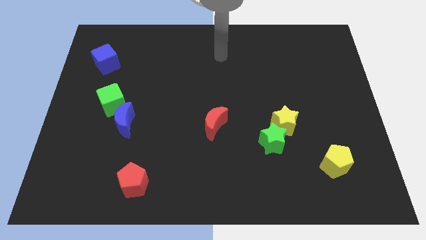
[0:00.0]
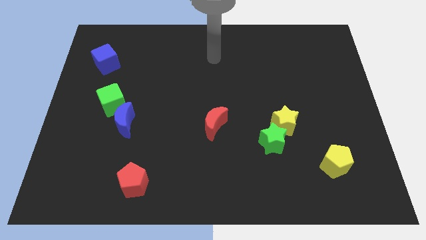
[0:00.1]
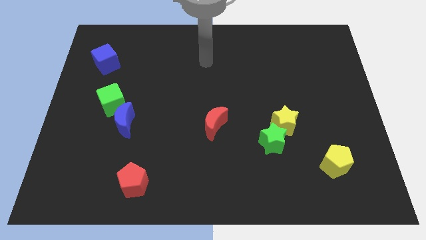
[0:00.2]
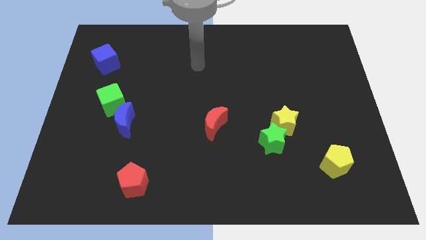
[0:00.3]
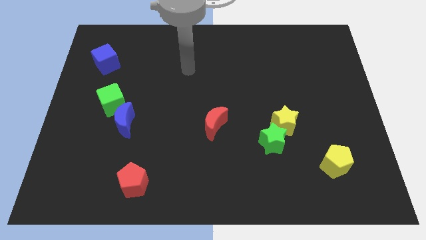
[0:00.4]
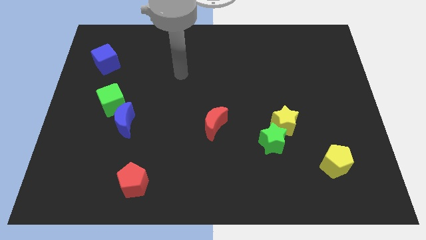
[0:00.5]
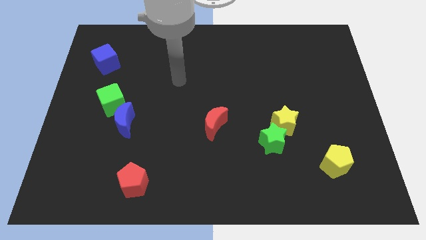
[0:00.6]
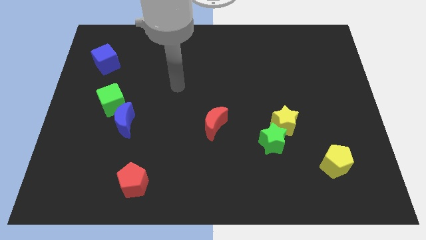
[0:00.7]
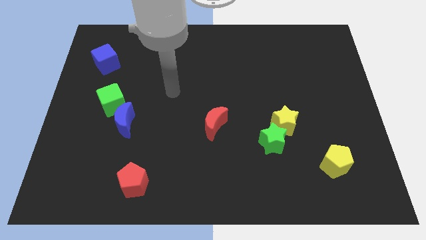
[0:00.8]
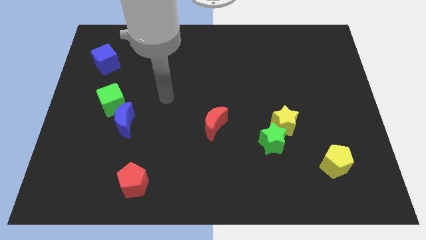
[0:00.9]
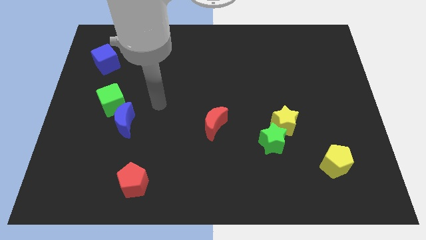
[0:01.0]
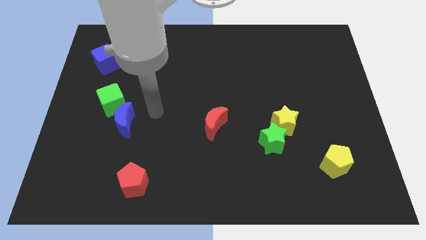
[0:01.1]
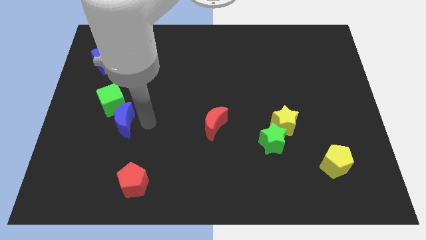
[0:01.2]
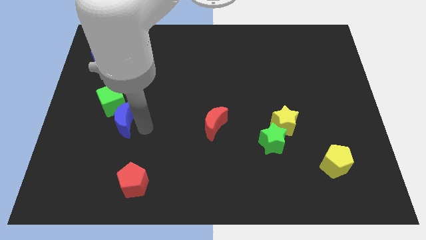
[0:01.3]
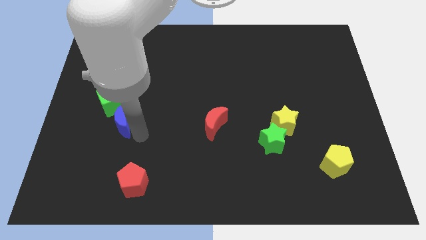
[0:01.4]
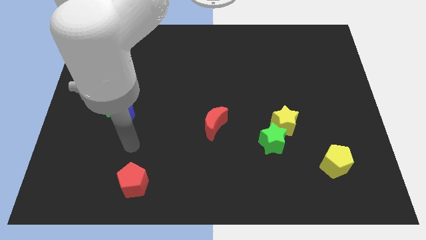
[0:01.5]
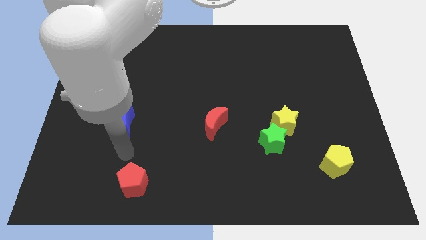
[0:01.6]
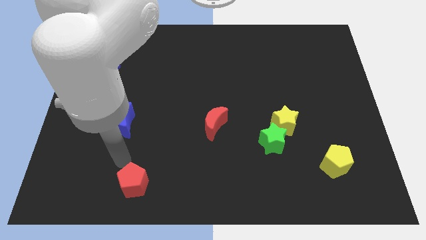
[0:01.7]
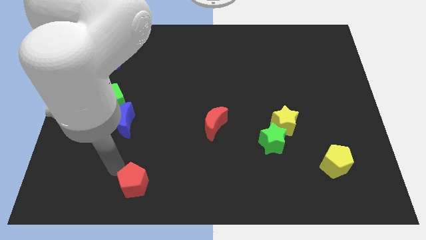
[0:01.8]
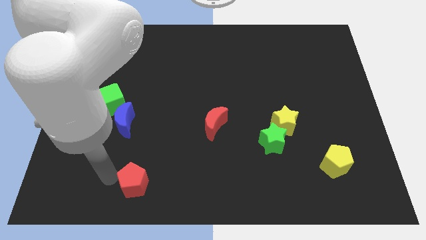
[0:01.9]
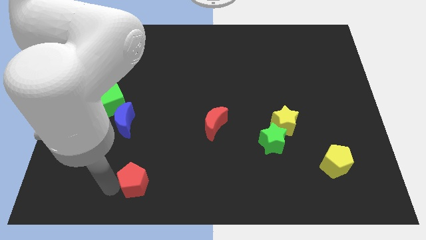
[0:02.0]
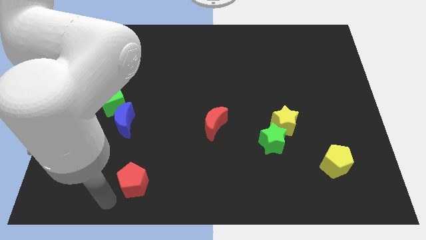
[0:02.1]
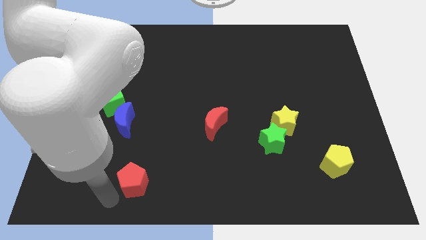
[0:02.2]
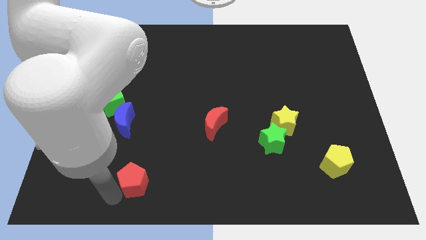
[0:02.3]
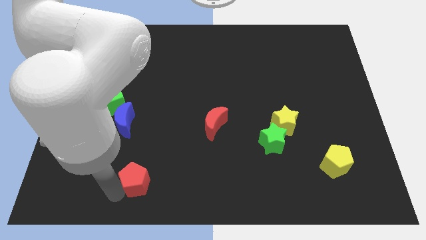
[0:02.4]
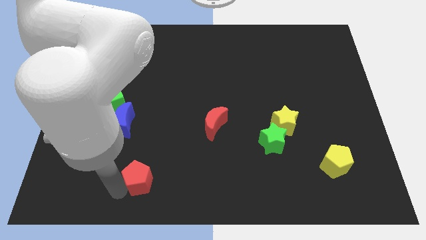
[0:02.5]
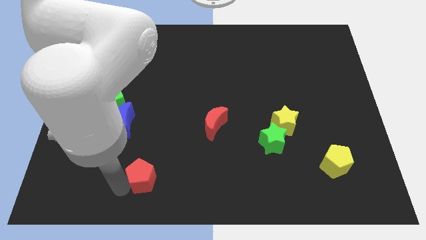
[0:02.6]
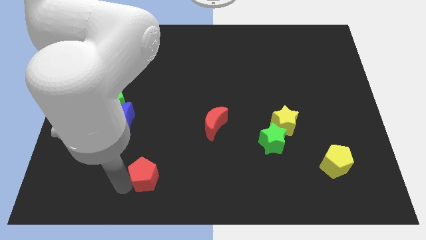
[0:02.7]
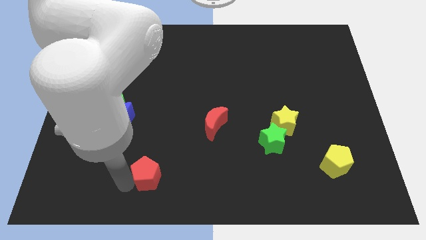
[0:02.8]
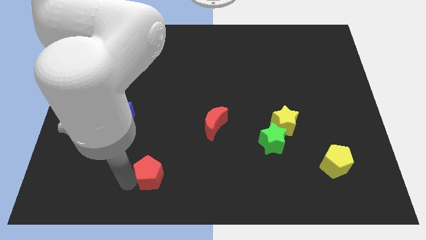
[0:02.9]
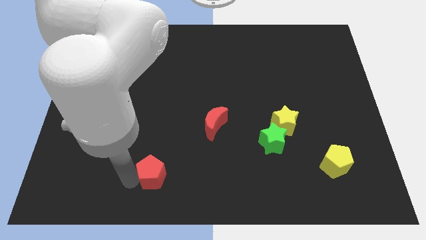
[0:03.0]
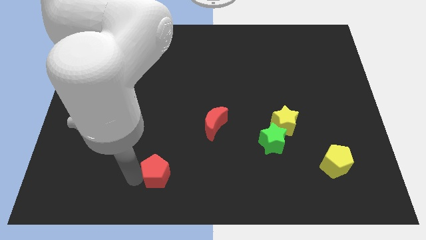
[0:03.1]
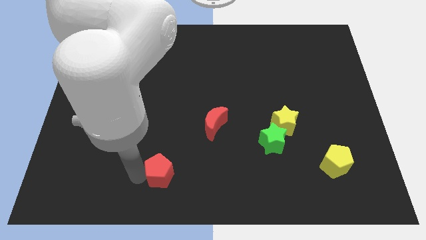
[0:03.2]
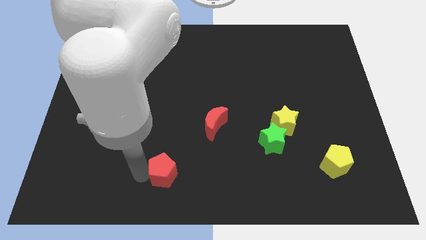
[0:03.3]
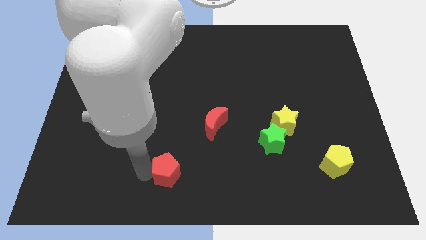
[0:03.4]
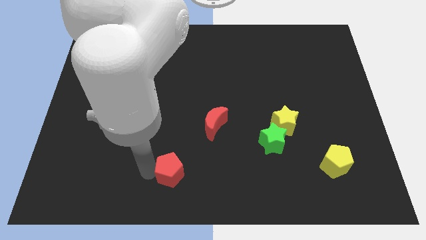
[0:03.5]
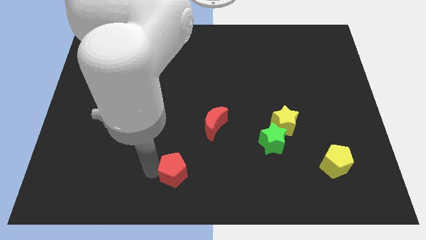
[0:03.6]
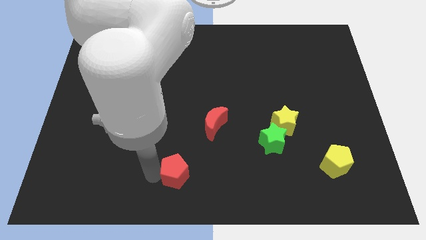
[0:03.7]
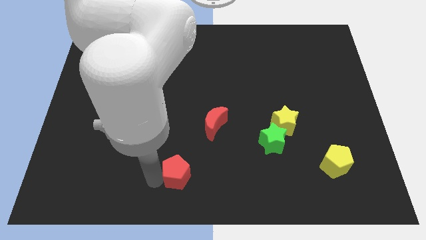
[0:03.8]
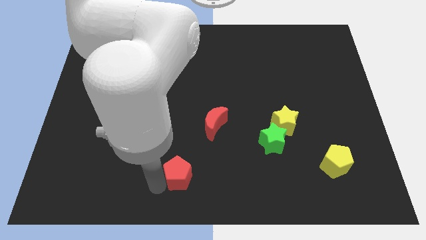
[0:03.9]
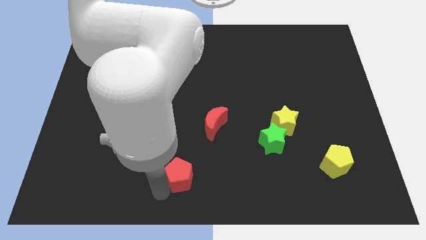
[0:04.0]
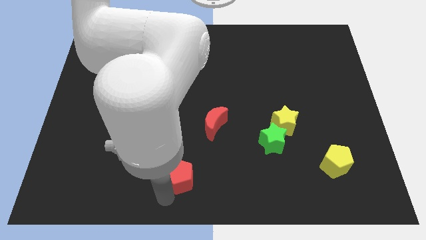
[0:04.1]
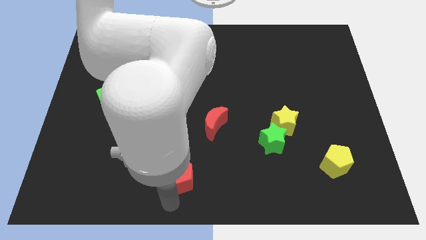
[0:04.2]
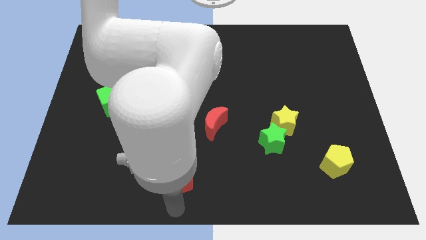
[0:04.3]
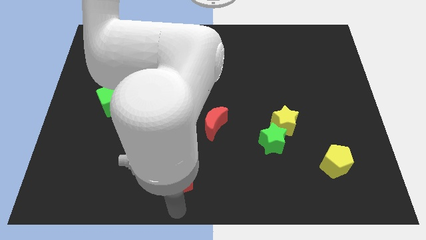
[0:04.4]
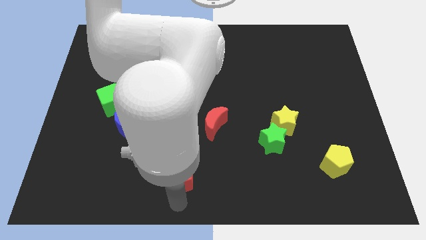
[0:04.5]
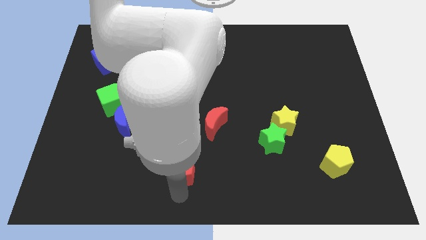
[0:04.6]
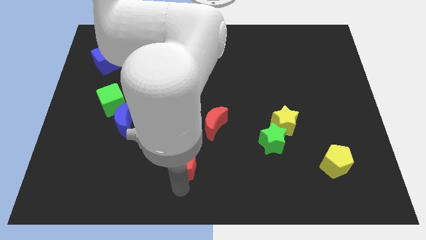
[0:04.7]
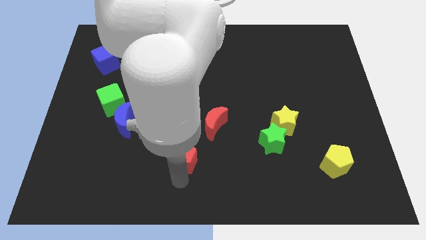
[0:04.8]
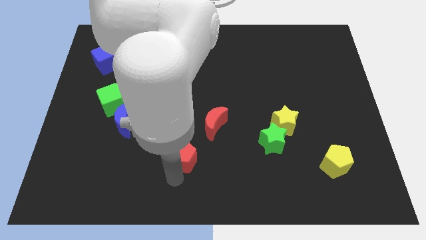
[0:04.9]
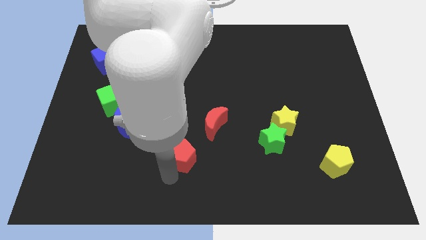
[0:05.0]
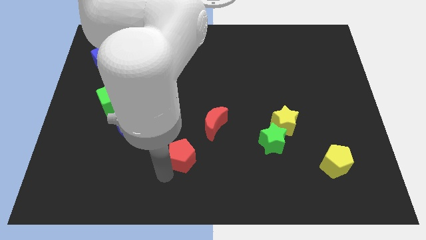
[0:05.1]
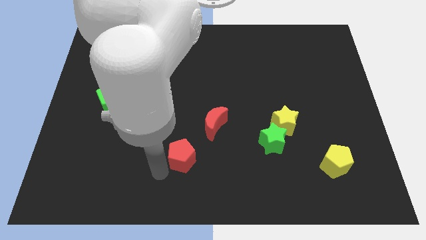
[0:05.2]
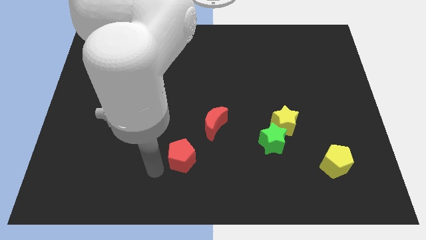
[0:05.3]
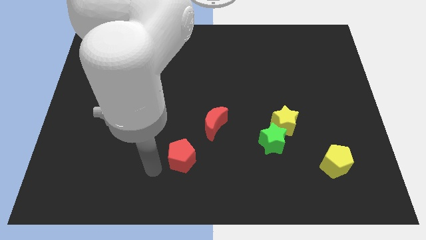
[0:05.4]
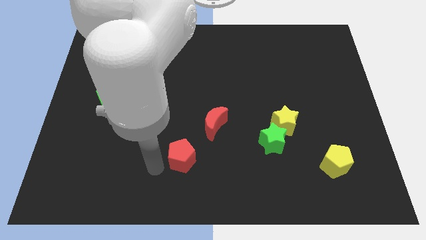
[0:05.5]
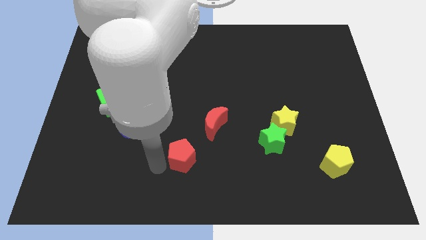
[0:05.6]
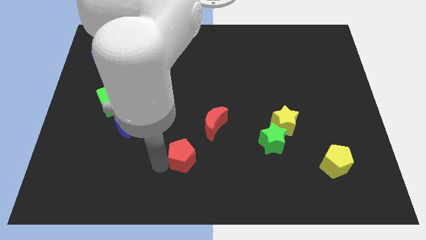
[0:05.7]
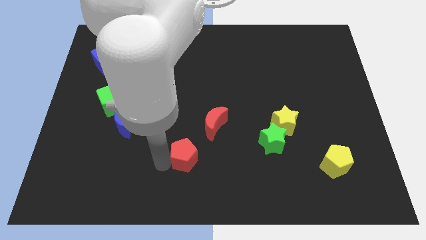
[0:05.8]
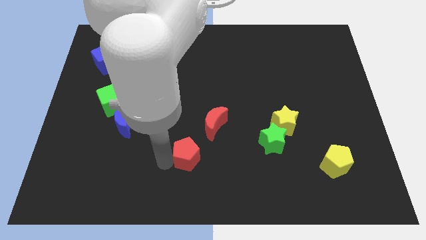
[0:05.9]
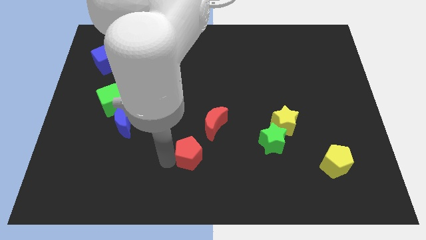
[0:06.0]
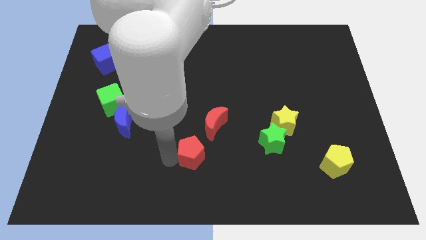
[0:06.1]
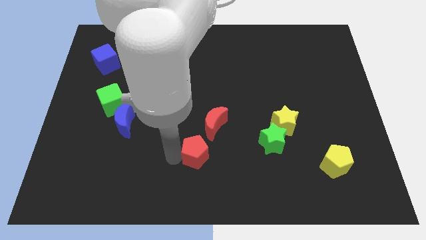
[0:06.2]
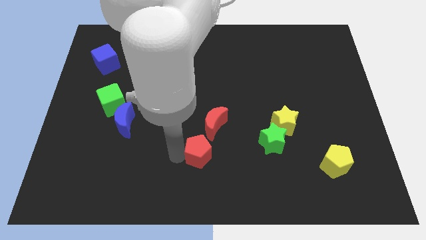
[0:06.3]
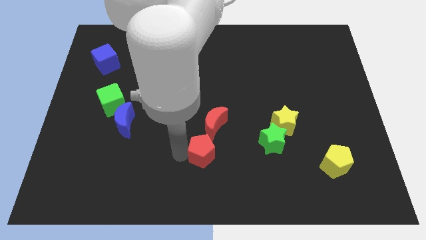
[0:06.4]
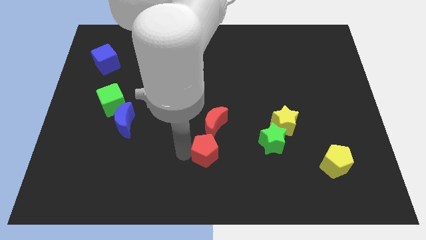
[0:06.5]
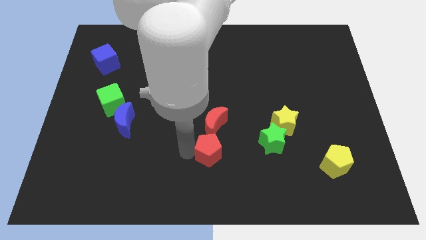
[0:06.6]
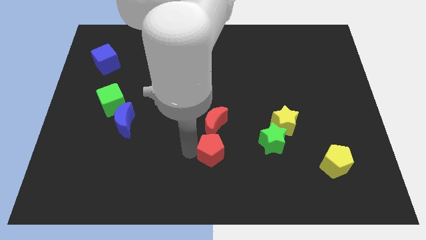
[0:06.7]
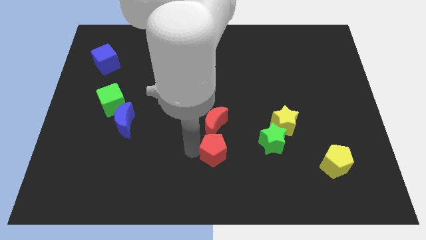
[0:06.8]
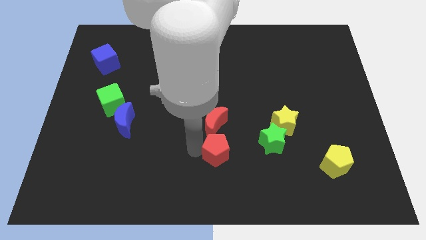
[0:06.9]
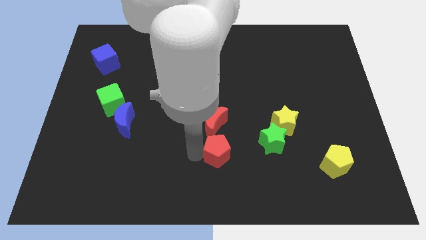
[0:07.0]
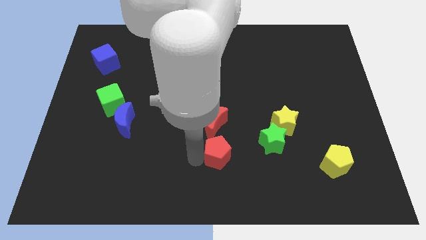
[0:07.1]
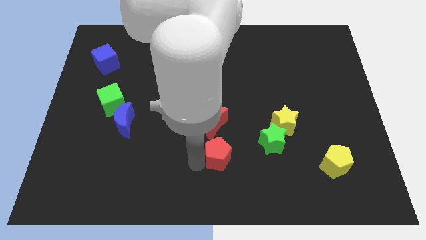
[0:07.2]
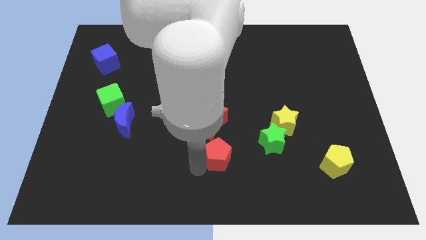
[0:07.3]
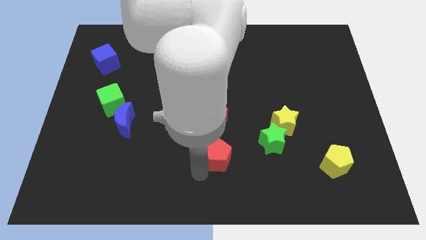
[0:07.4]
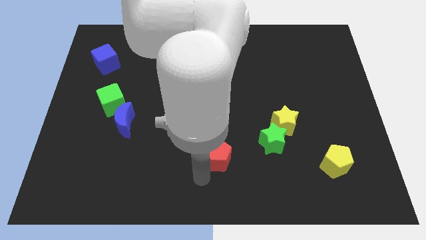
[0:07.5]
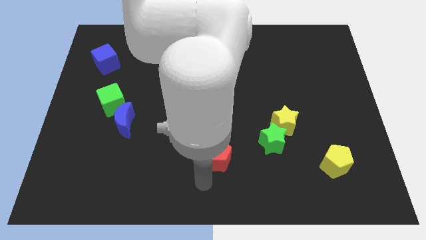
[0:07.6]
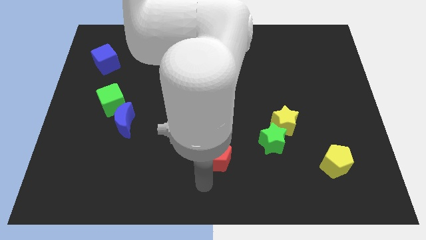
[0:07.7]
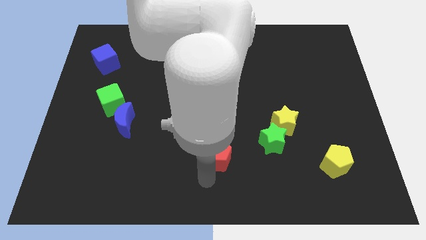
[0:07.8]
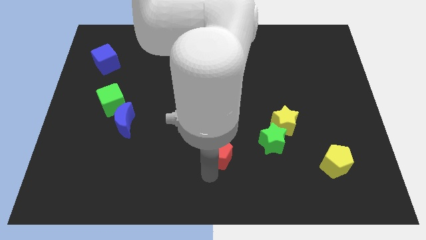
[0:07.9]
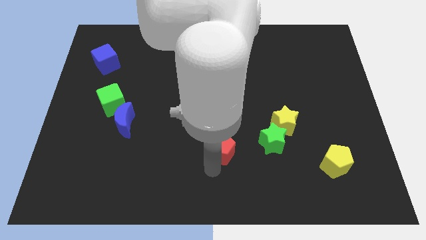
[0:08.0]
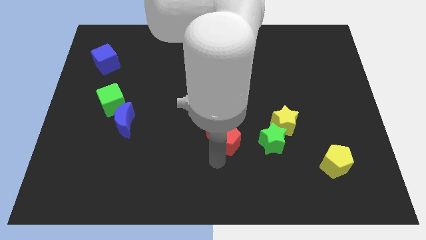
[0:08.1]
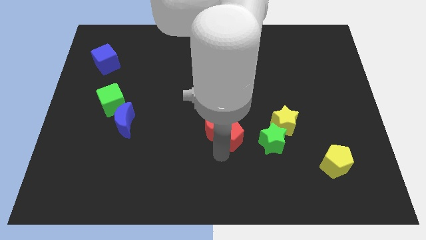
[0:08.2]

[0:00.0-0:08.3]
put the red pentagon to the left side of the yellow star
